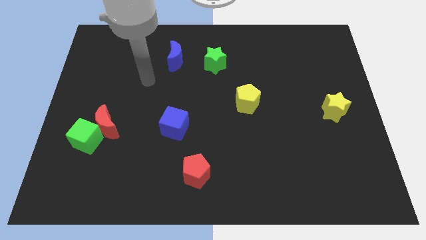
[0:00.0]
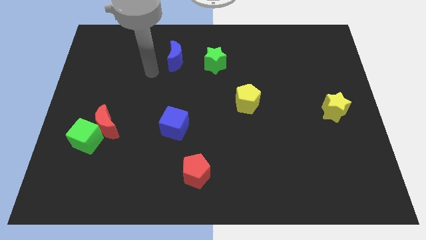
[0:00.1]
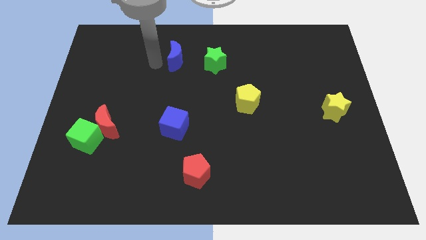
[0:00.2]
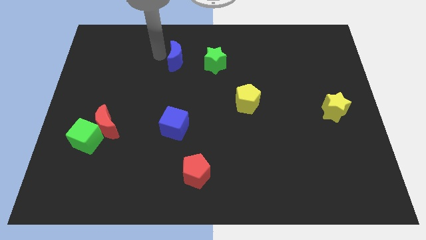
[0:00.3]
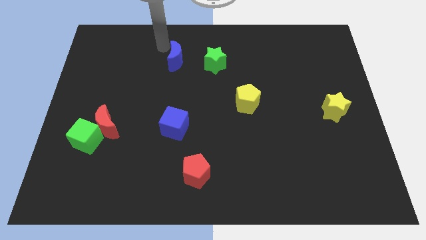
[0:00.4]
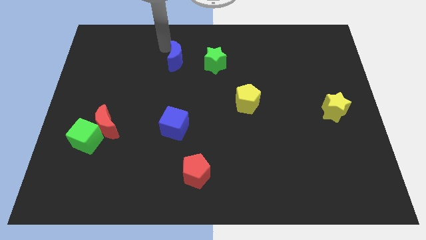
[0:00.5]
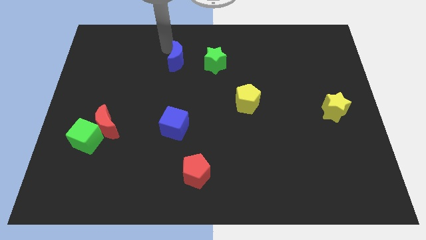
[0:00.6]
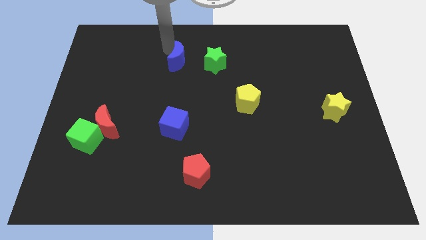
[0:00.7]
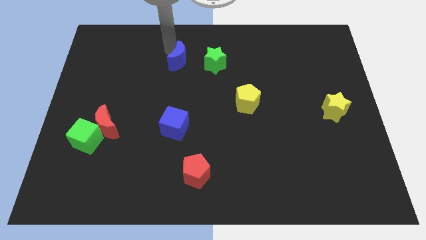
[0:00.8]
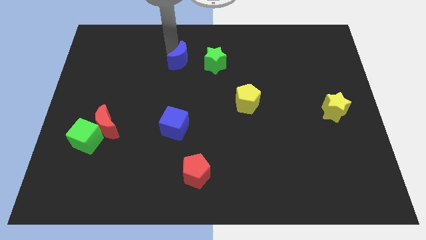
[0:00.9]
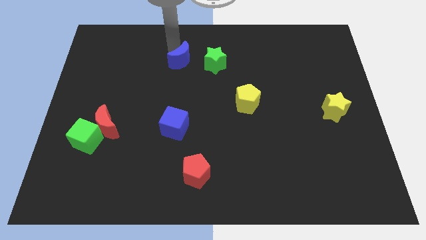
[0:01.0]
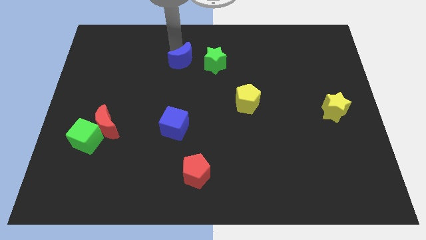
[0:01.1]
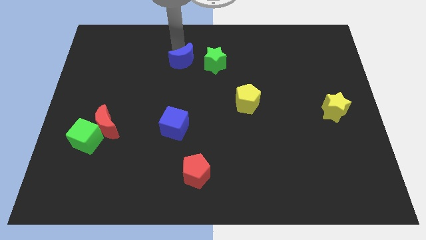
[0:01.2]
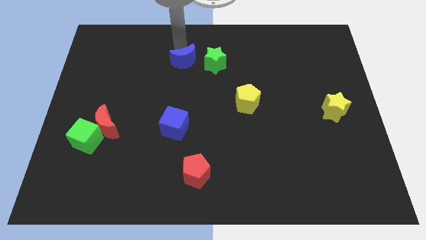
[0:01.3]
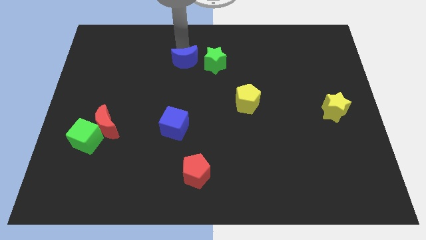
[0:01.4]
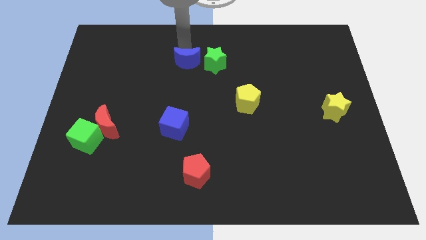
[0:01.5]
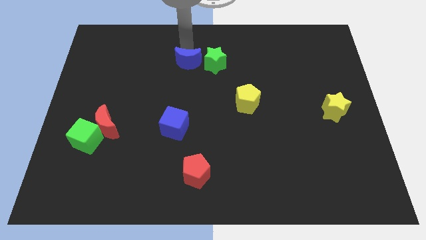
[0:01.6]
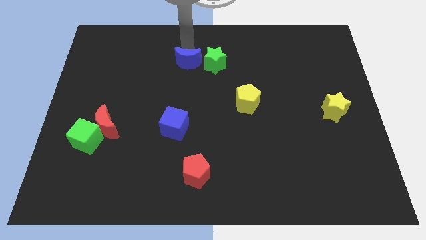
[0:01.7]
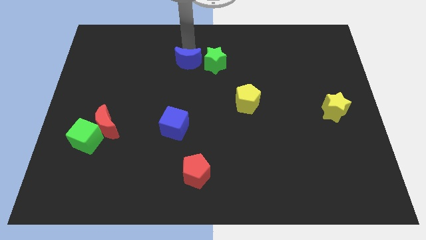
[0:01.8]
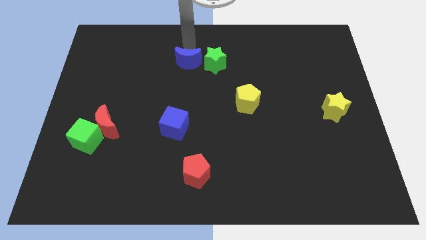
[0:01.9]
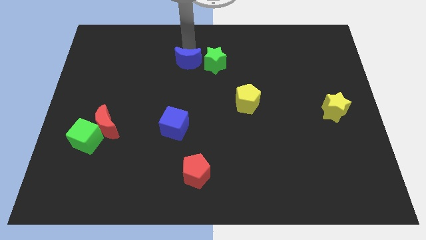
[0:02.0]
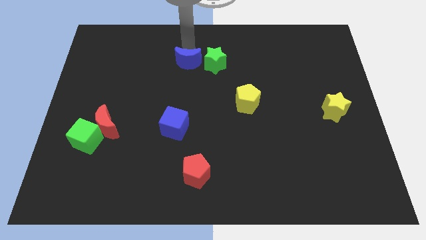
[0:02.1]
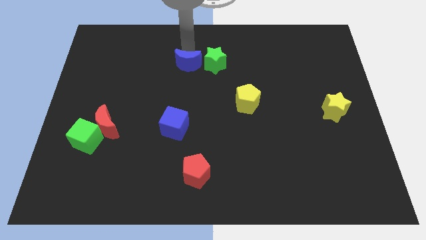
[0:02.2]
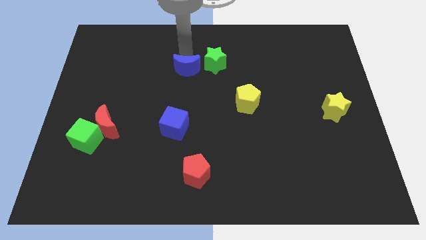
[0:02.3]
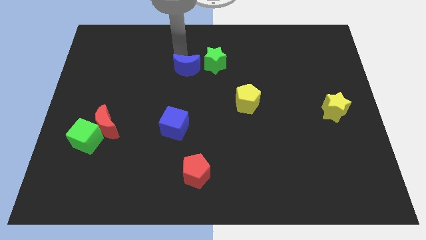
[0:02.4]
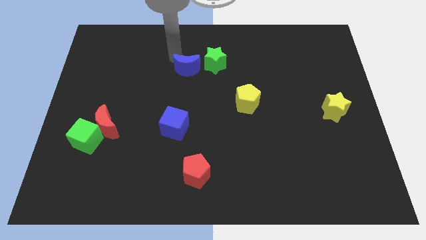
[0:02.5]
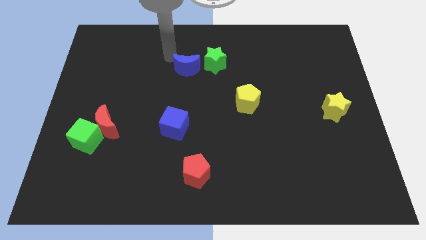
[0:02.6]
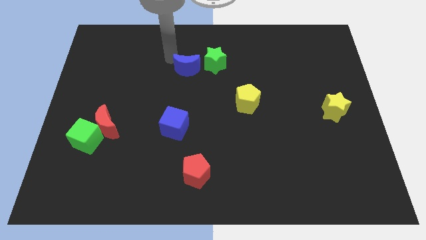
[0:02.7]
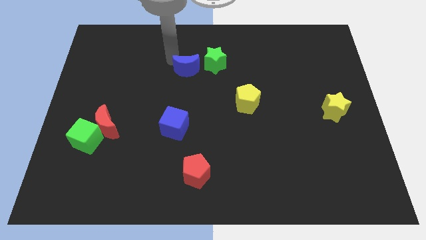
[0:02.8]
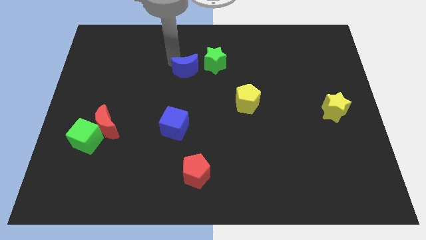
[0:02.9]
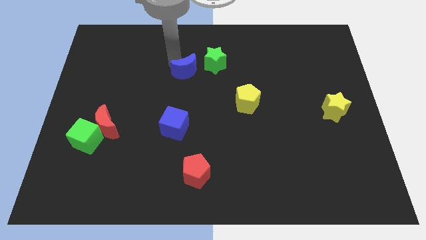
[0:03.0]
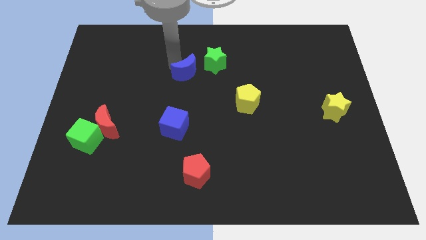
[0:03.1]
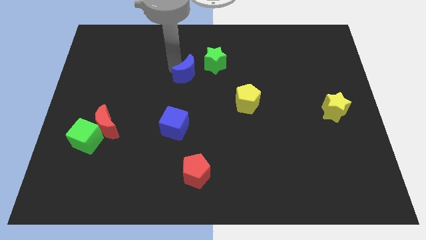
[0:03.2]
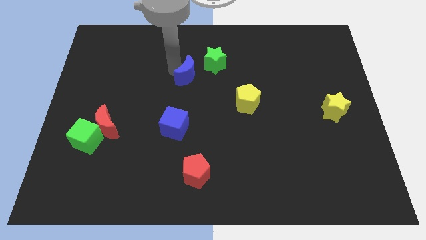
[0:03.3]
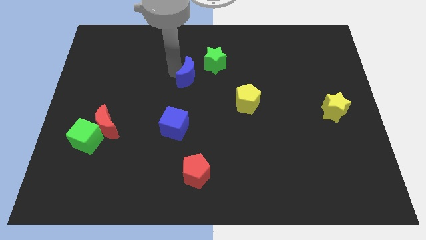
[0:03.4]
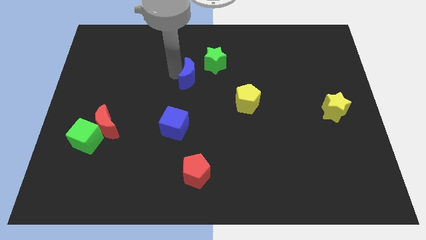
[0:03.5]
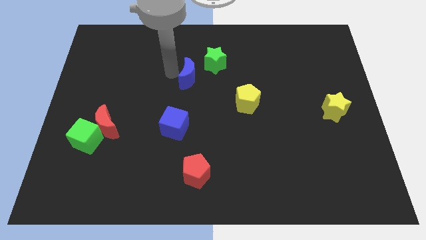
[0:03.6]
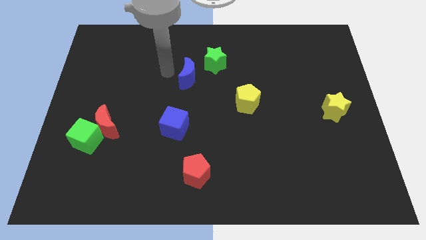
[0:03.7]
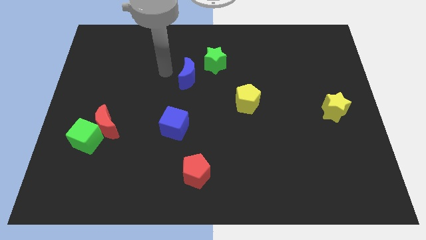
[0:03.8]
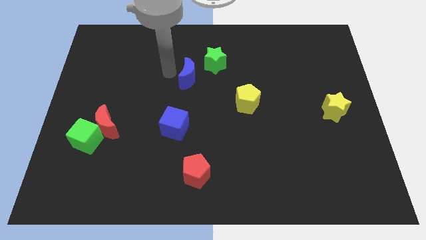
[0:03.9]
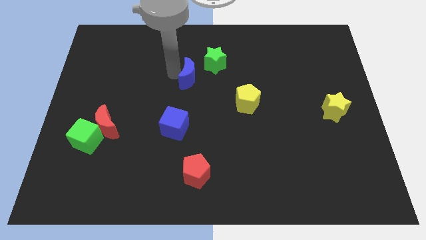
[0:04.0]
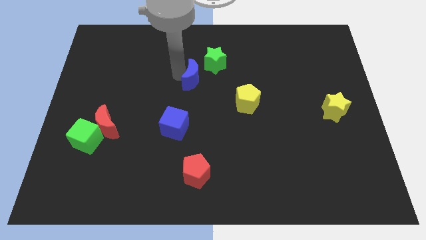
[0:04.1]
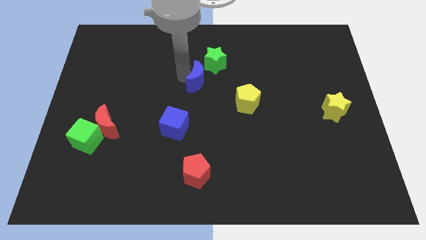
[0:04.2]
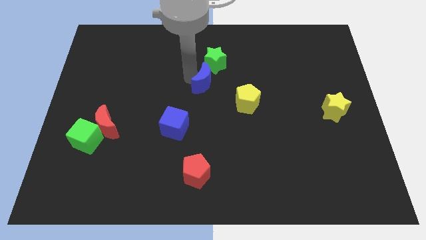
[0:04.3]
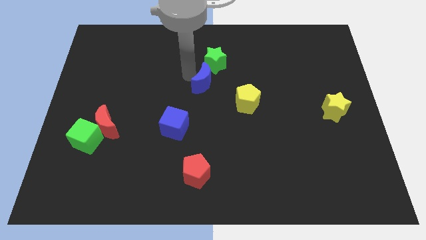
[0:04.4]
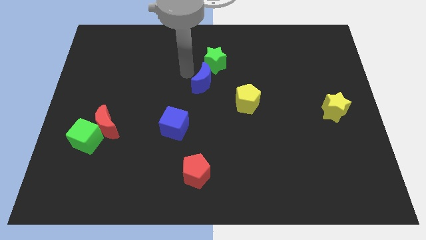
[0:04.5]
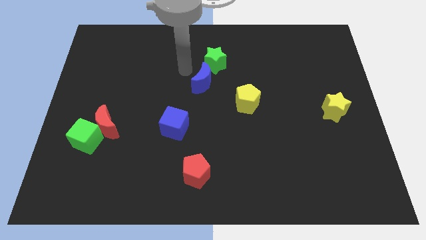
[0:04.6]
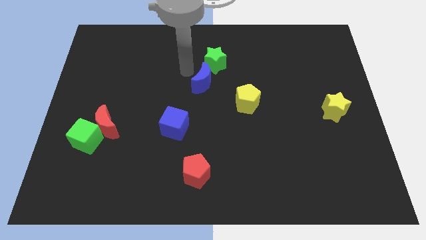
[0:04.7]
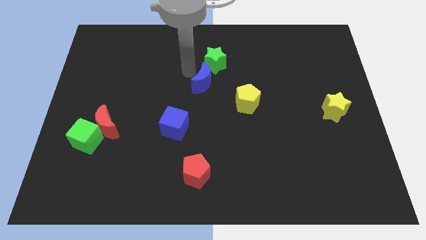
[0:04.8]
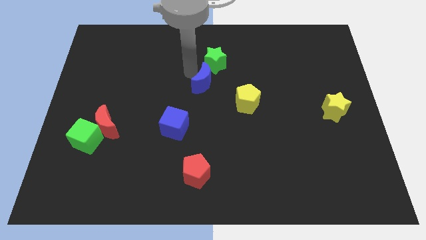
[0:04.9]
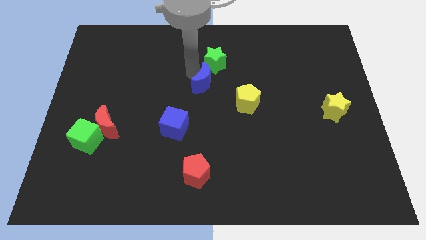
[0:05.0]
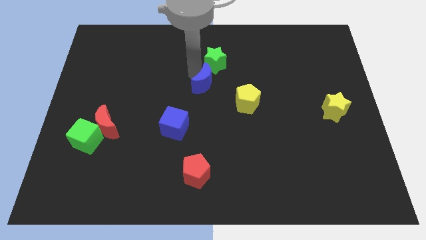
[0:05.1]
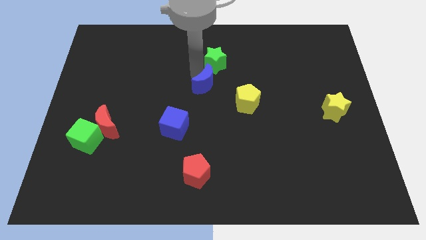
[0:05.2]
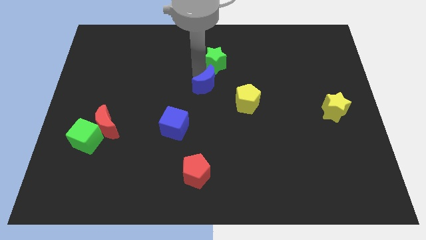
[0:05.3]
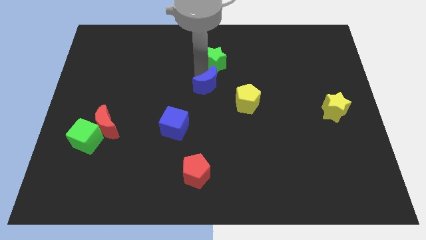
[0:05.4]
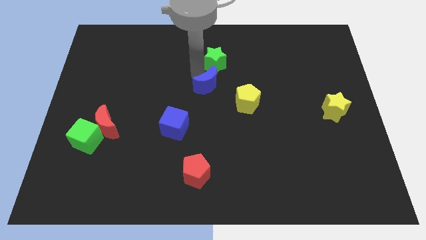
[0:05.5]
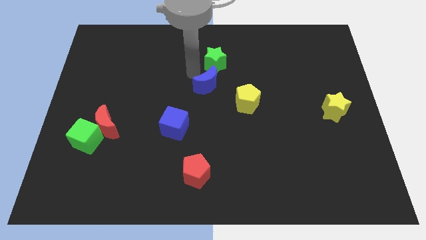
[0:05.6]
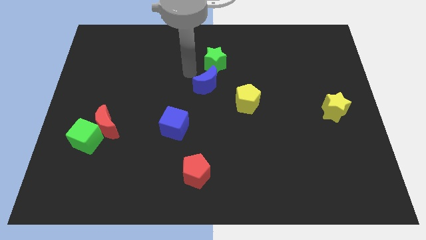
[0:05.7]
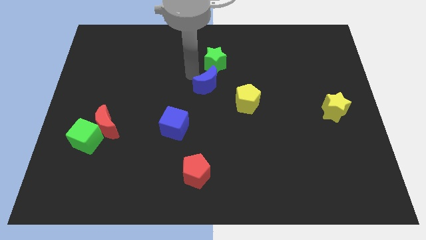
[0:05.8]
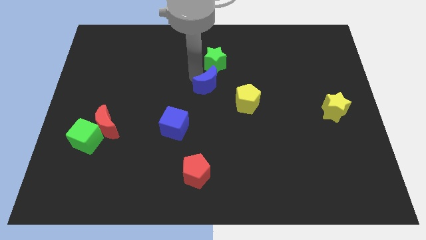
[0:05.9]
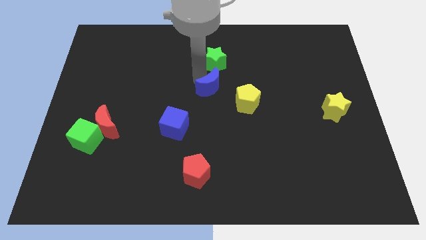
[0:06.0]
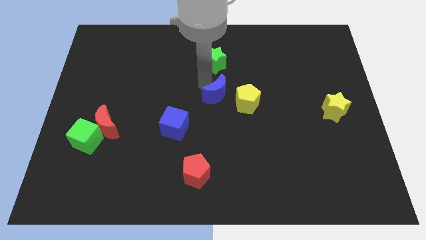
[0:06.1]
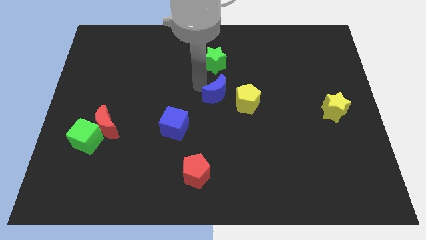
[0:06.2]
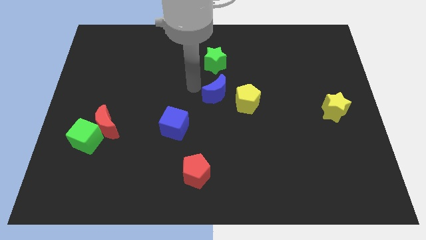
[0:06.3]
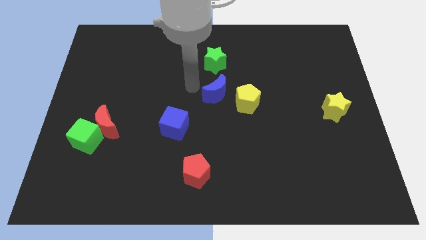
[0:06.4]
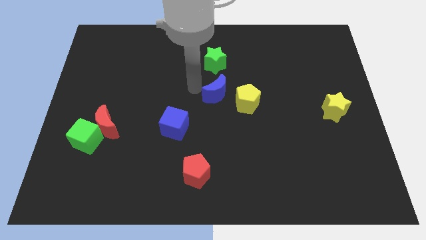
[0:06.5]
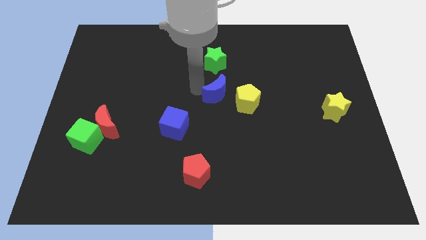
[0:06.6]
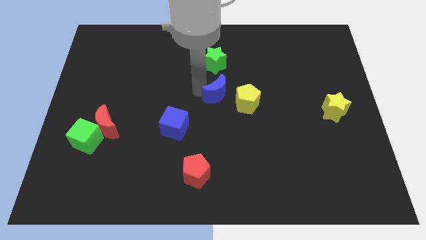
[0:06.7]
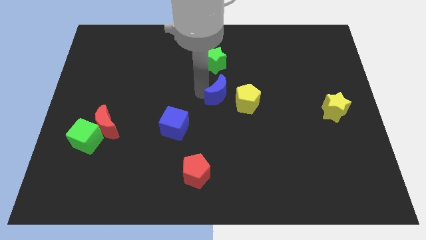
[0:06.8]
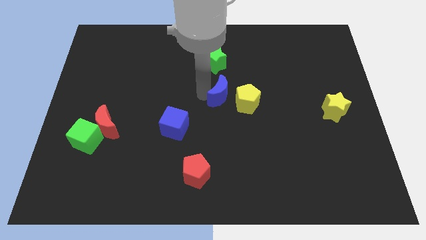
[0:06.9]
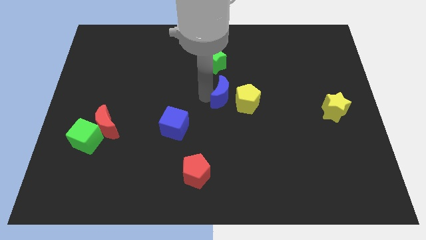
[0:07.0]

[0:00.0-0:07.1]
put the blue moon to the yellow pentagon

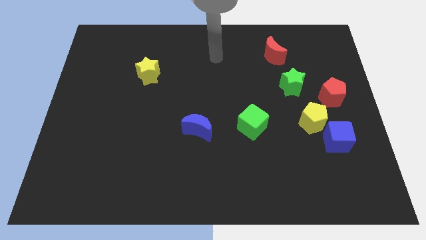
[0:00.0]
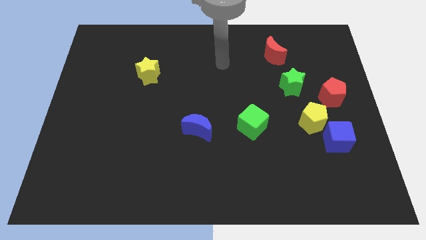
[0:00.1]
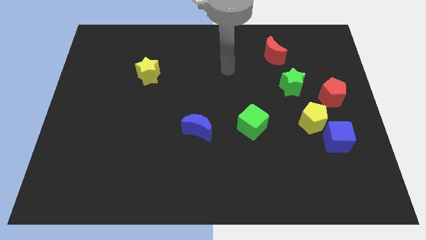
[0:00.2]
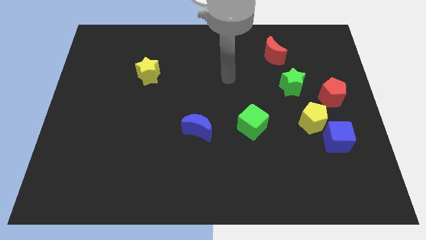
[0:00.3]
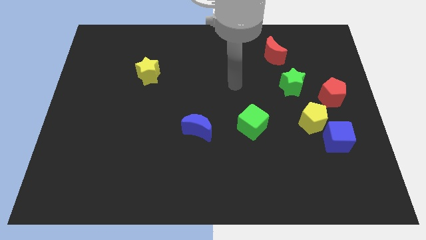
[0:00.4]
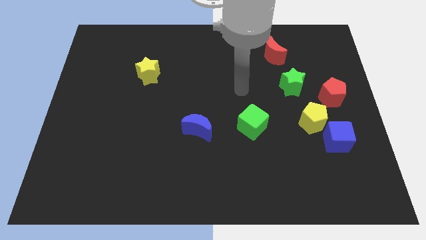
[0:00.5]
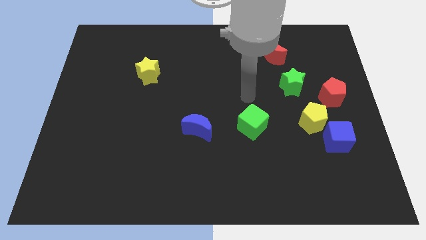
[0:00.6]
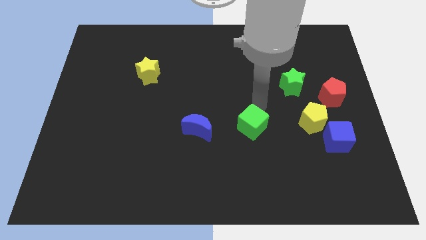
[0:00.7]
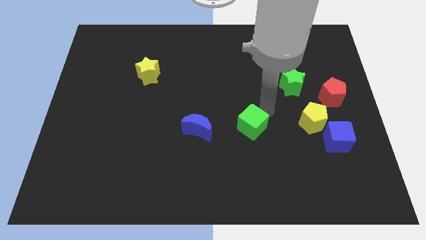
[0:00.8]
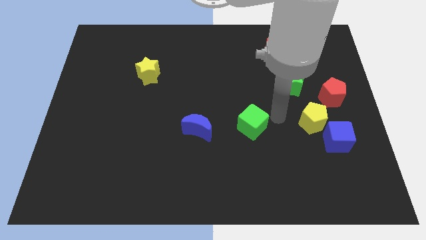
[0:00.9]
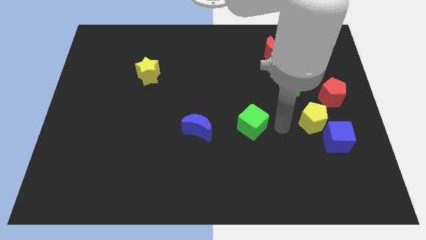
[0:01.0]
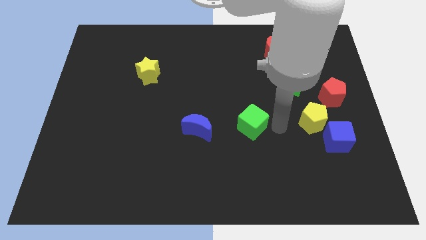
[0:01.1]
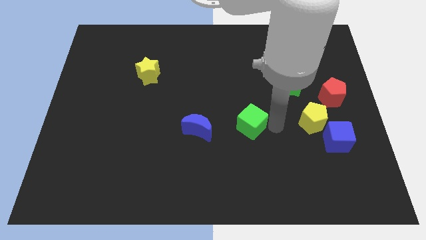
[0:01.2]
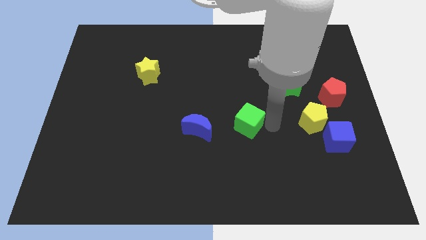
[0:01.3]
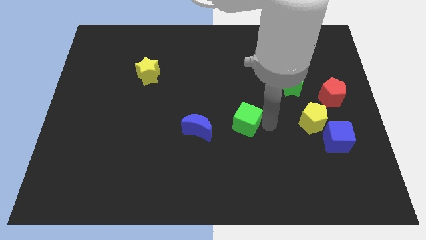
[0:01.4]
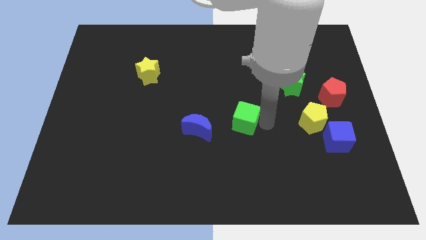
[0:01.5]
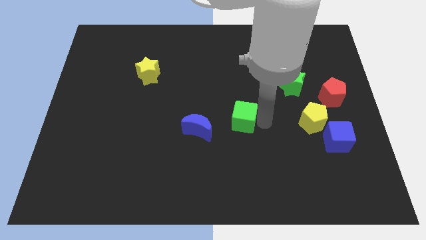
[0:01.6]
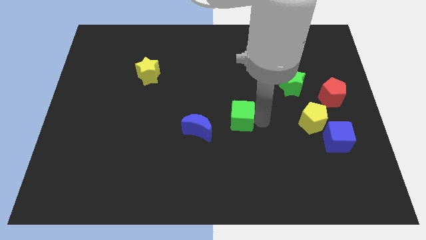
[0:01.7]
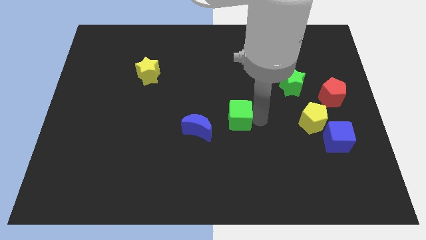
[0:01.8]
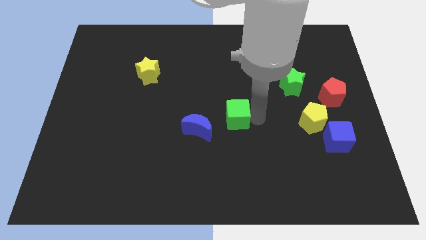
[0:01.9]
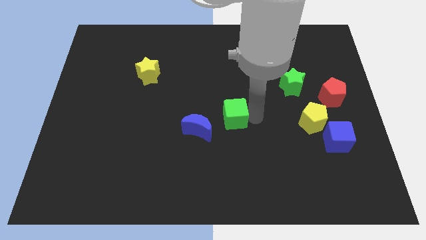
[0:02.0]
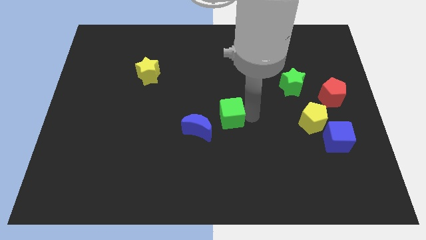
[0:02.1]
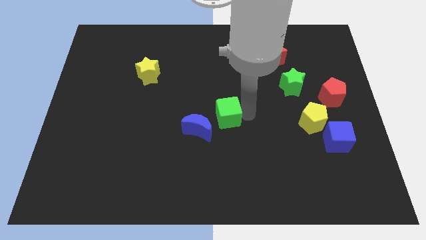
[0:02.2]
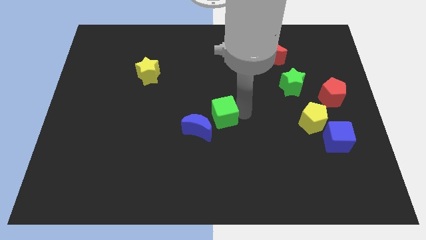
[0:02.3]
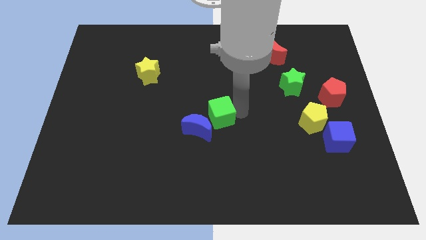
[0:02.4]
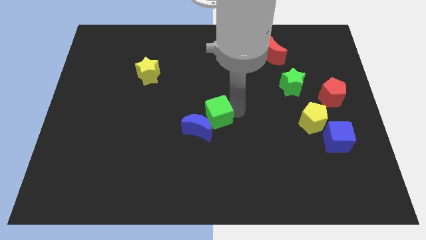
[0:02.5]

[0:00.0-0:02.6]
slide the green cube close to the blue moon
